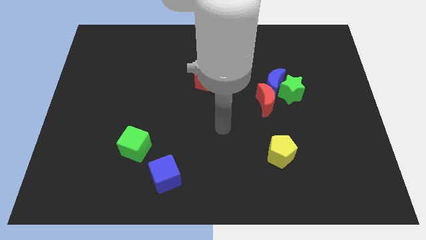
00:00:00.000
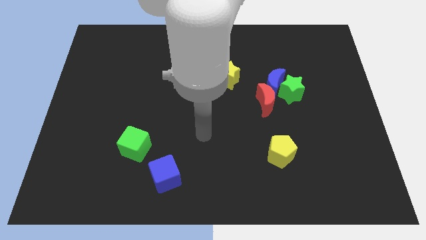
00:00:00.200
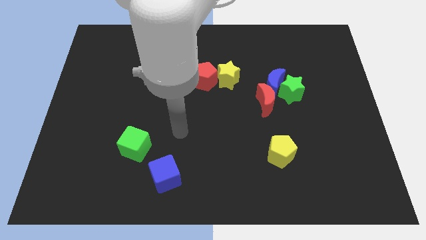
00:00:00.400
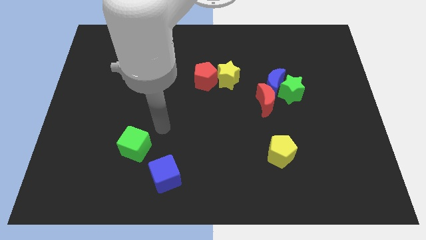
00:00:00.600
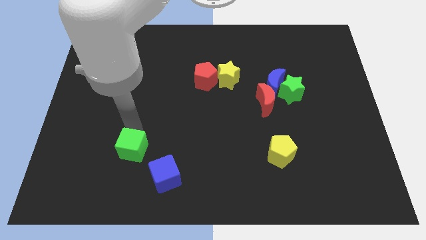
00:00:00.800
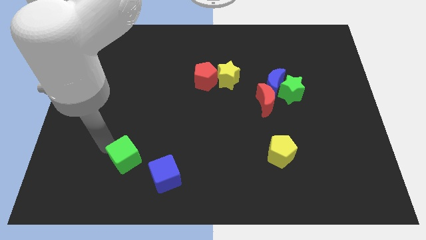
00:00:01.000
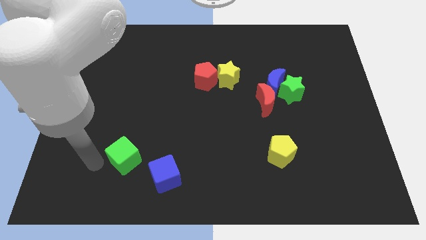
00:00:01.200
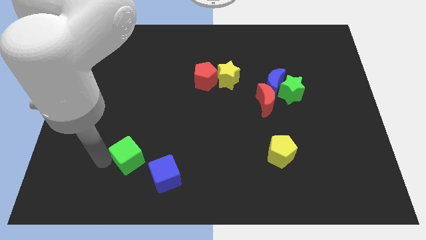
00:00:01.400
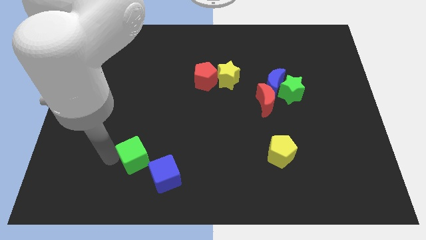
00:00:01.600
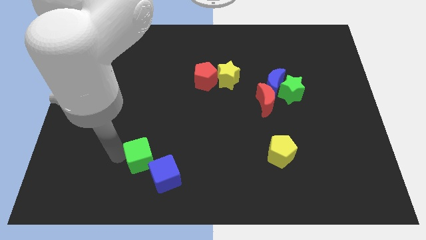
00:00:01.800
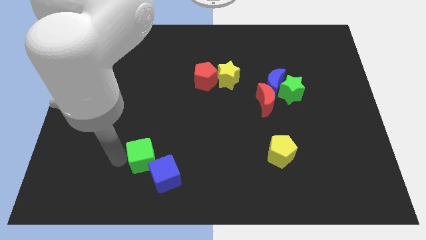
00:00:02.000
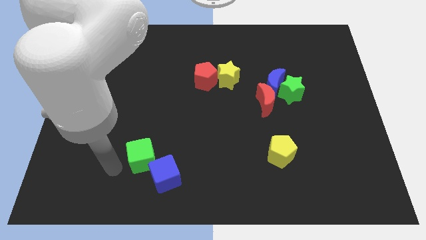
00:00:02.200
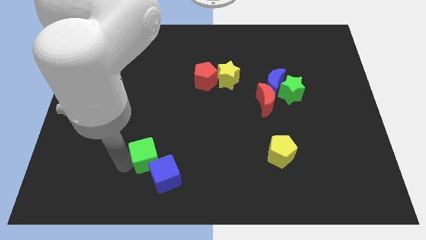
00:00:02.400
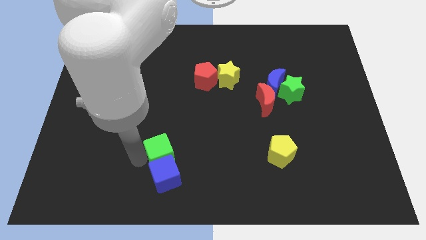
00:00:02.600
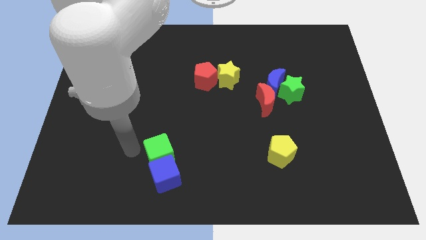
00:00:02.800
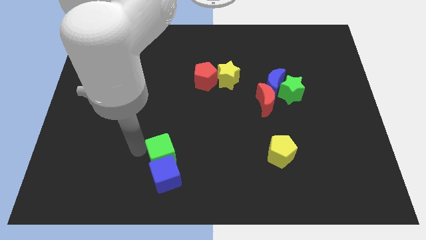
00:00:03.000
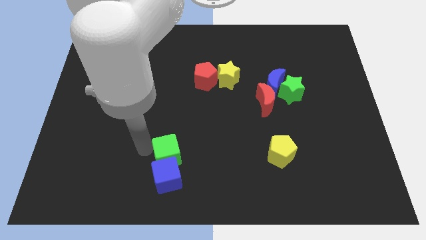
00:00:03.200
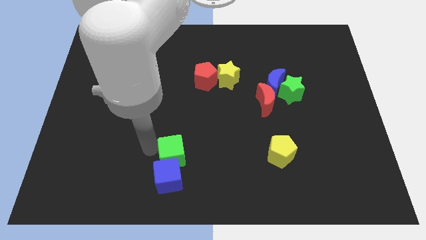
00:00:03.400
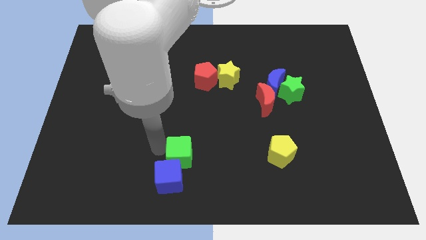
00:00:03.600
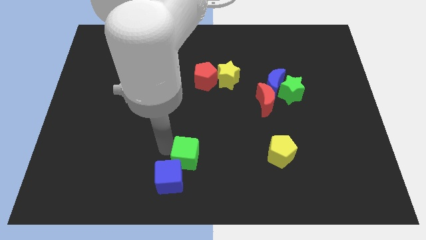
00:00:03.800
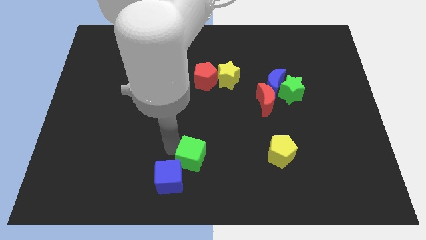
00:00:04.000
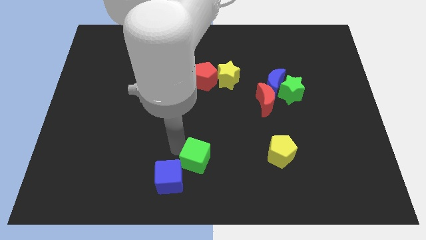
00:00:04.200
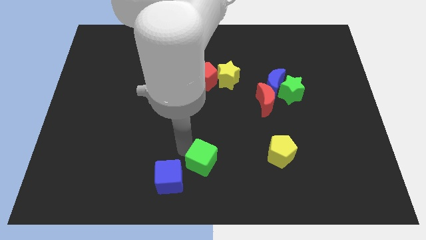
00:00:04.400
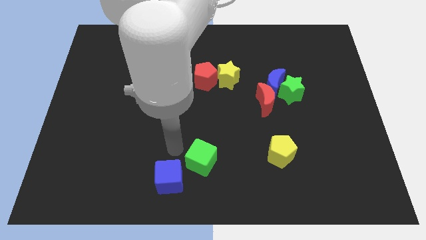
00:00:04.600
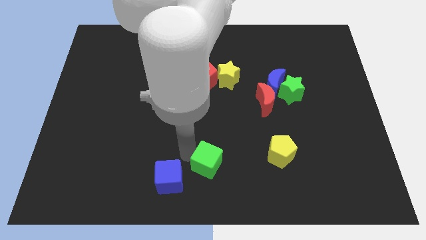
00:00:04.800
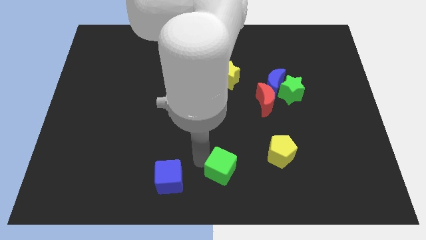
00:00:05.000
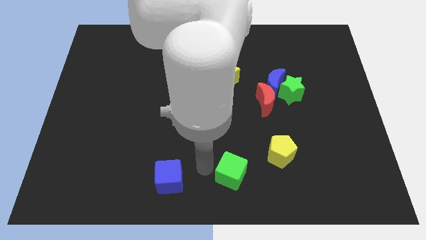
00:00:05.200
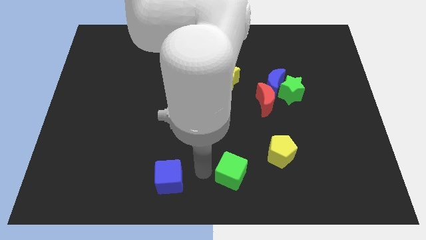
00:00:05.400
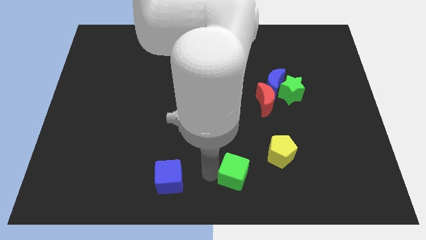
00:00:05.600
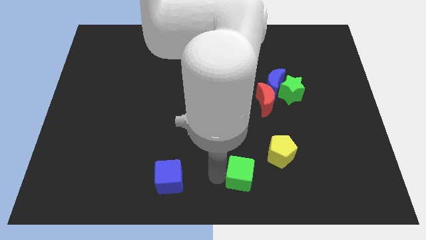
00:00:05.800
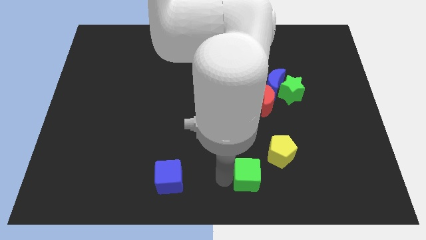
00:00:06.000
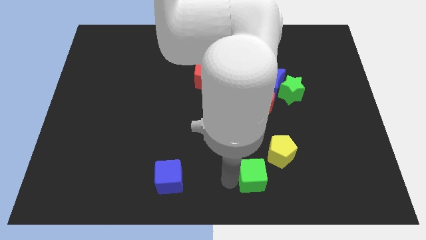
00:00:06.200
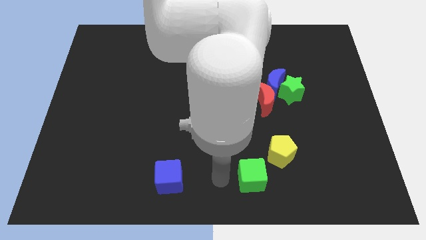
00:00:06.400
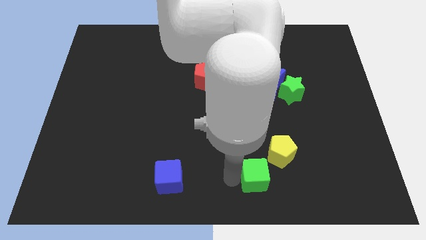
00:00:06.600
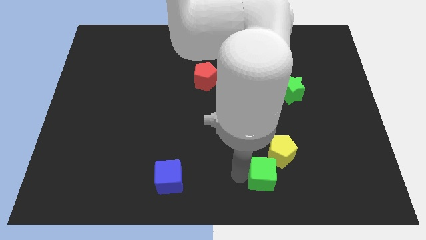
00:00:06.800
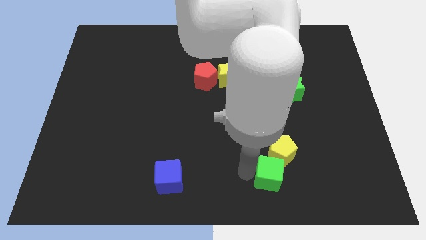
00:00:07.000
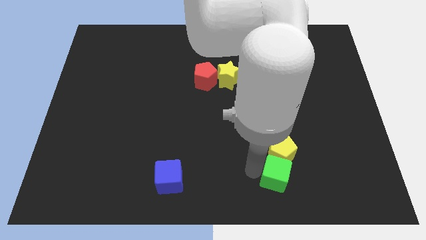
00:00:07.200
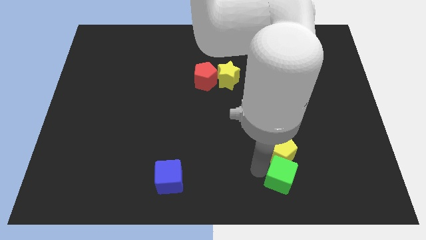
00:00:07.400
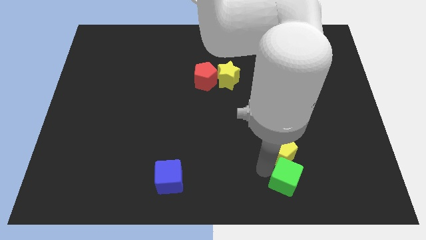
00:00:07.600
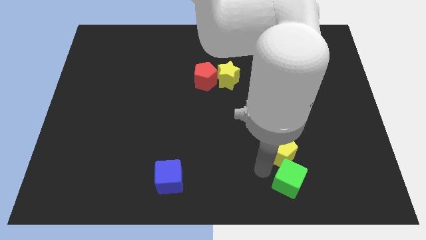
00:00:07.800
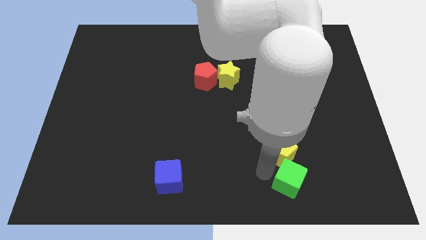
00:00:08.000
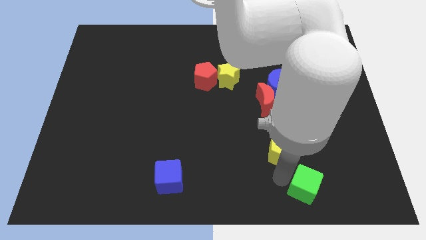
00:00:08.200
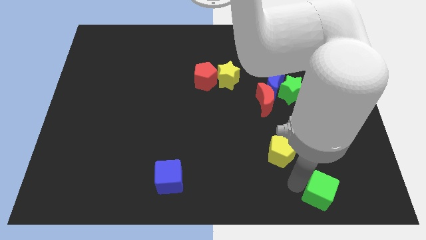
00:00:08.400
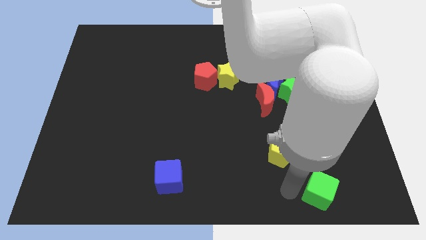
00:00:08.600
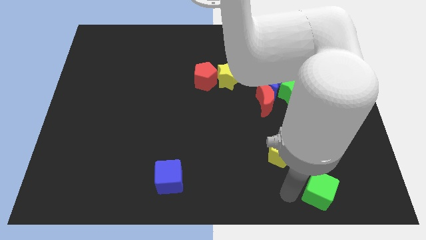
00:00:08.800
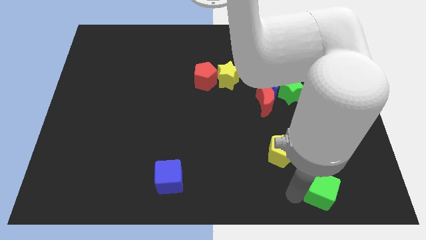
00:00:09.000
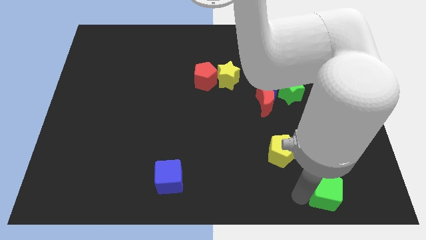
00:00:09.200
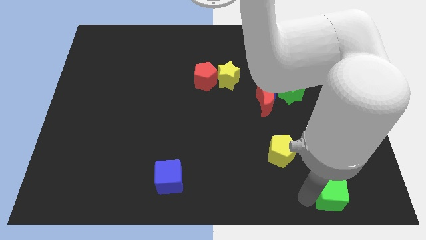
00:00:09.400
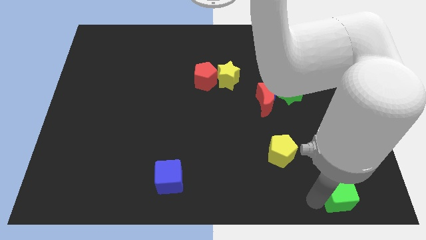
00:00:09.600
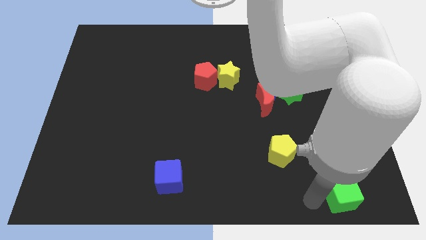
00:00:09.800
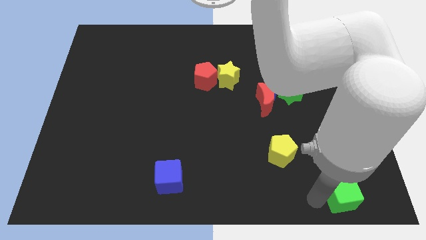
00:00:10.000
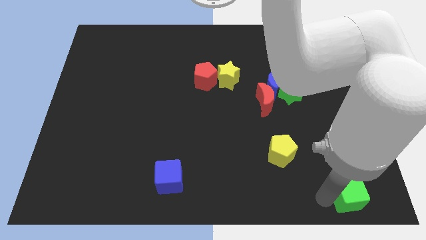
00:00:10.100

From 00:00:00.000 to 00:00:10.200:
put the green cube to the lower right corner

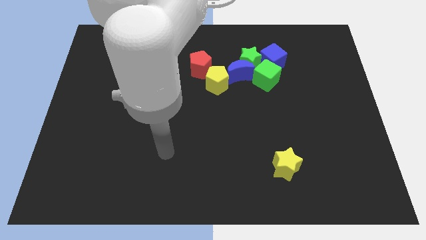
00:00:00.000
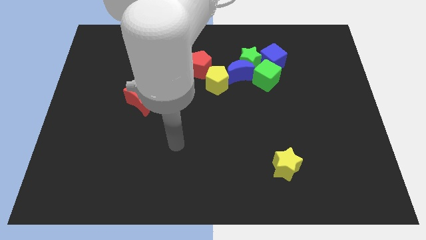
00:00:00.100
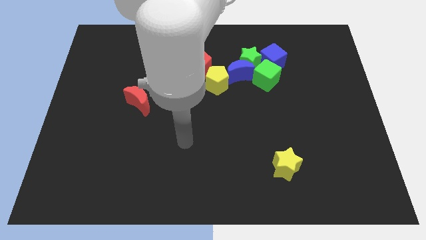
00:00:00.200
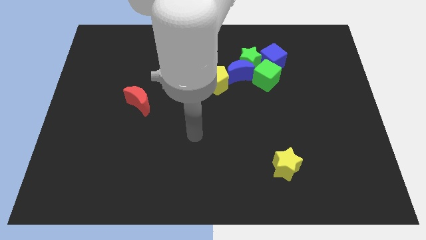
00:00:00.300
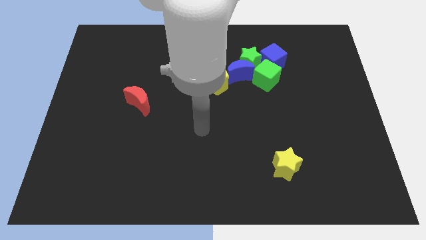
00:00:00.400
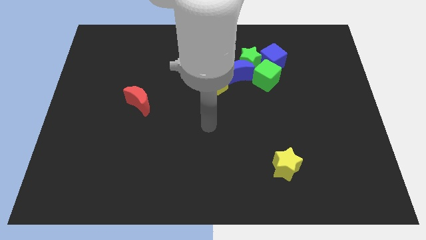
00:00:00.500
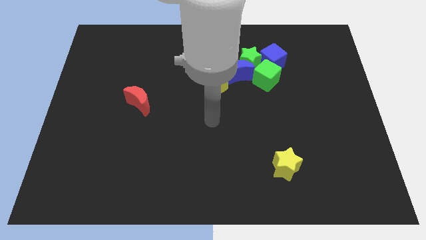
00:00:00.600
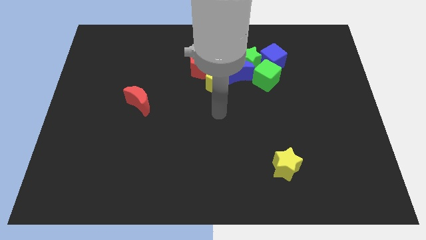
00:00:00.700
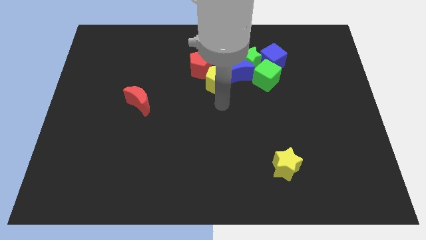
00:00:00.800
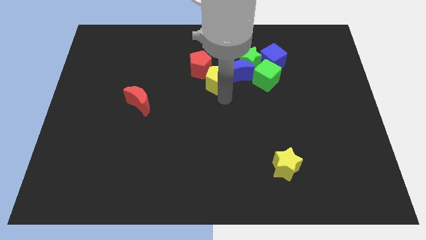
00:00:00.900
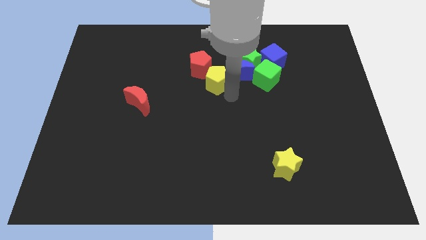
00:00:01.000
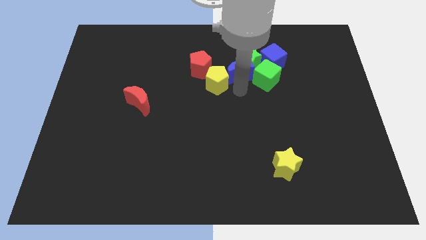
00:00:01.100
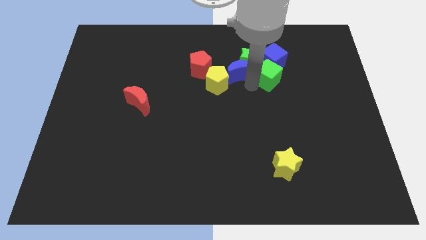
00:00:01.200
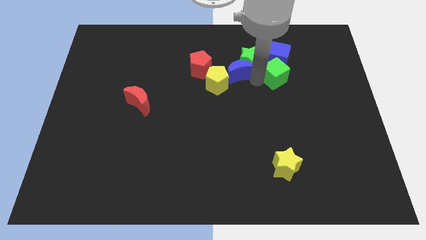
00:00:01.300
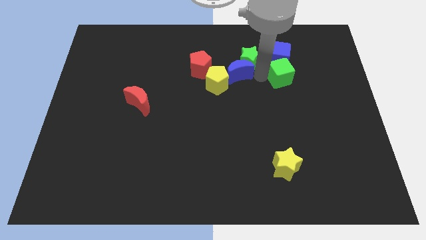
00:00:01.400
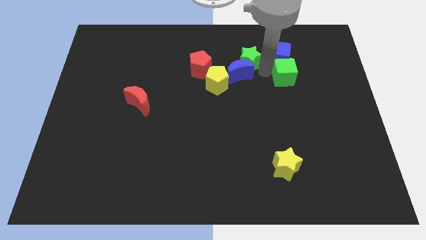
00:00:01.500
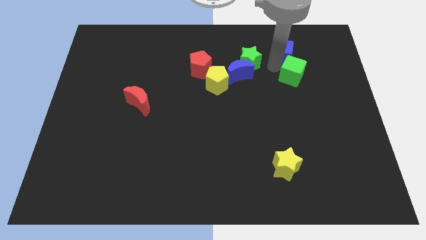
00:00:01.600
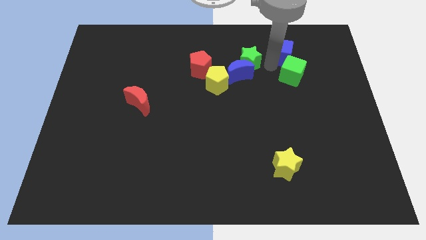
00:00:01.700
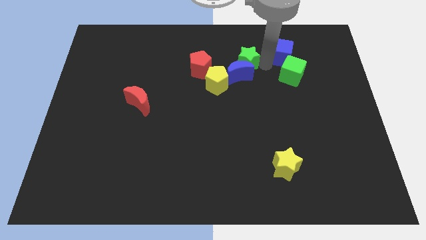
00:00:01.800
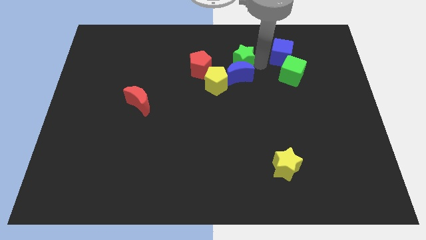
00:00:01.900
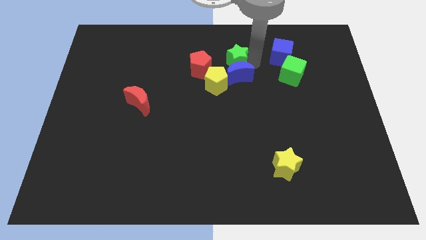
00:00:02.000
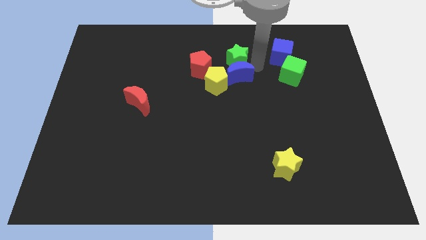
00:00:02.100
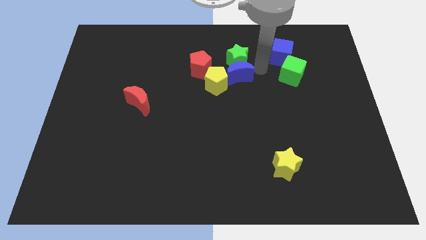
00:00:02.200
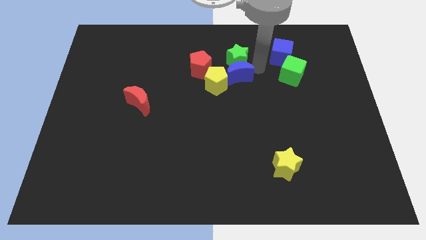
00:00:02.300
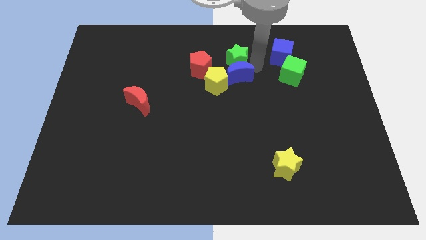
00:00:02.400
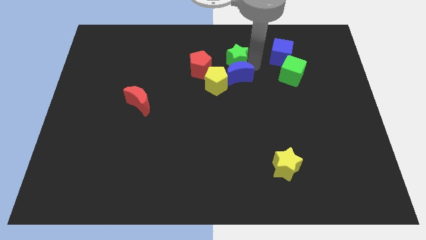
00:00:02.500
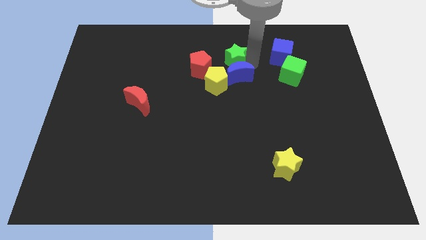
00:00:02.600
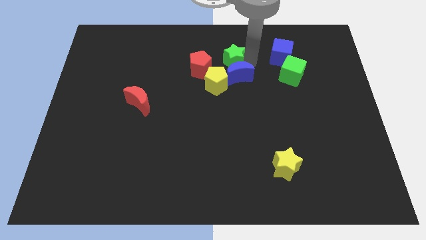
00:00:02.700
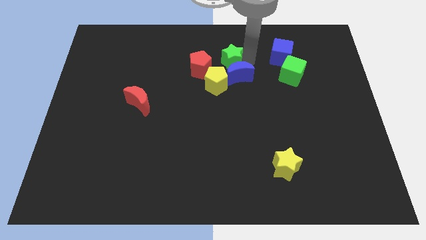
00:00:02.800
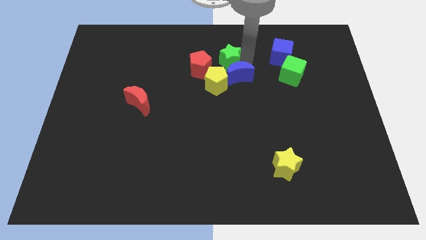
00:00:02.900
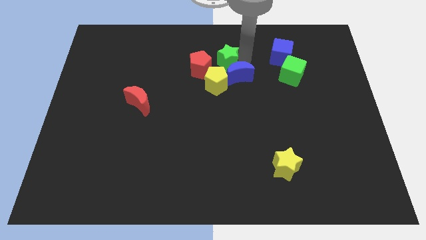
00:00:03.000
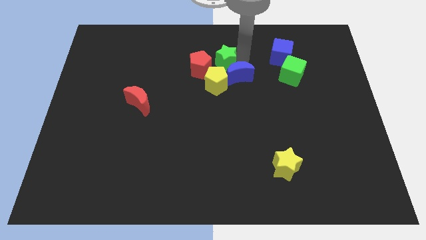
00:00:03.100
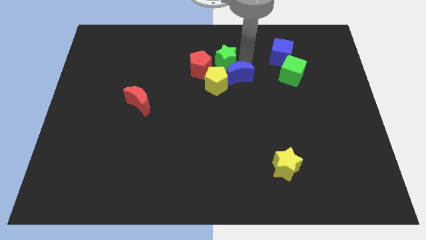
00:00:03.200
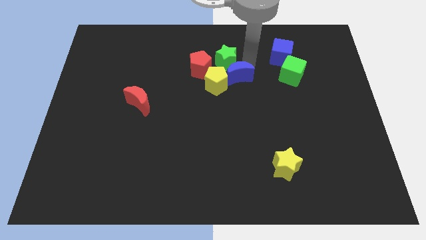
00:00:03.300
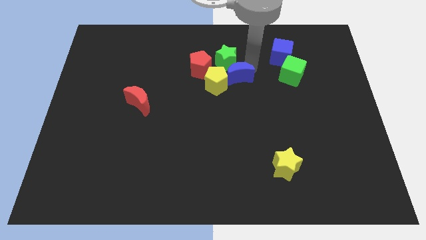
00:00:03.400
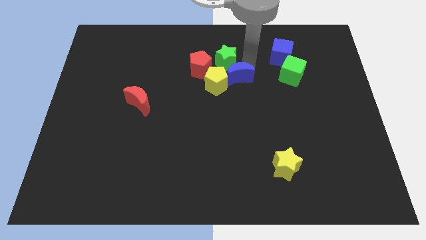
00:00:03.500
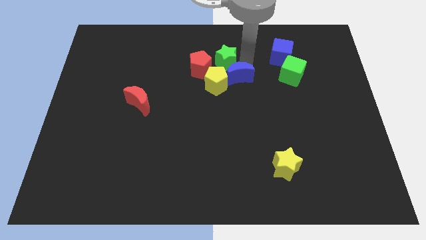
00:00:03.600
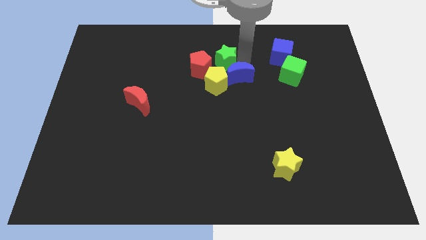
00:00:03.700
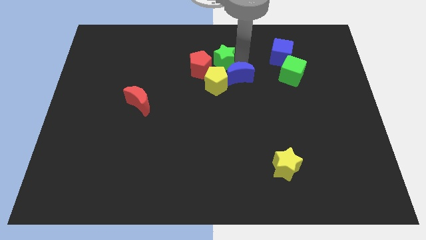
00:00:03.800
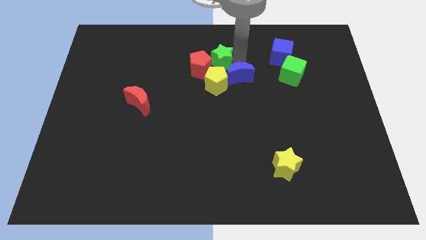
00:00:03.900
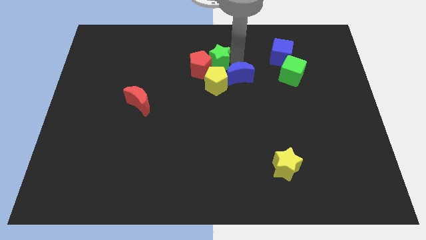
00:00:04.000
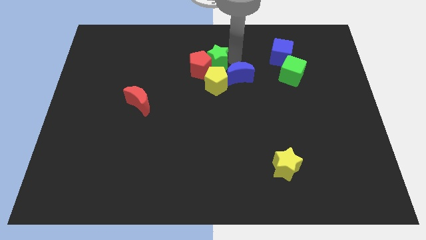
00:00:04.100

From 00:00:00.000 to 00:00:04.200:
put the green star to the middle of the board
